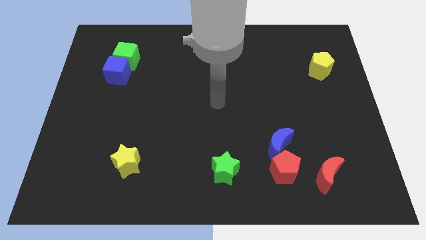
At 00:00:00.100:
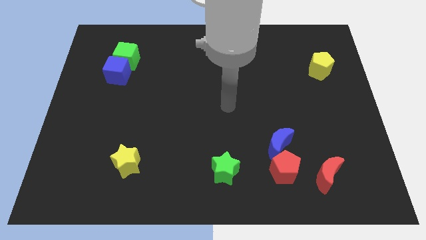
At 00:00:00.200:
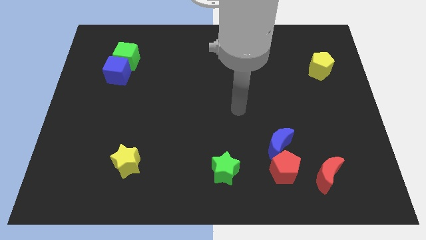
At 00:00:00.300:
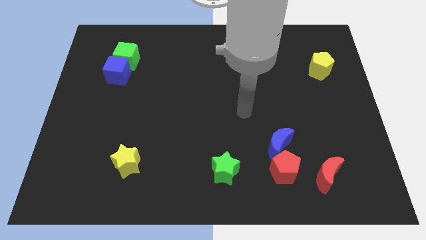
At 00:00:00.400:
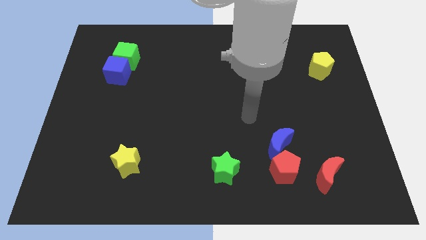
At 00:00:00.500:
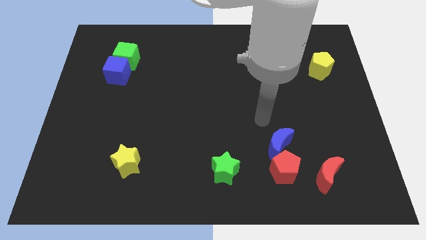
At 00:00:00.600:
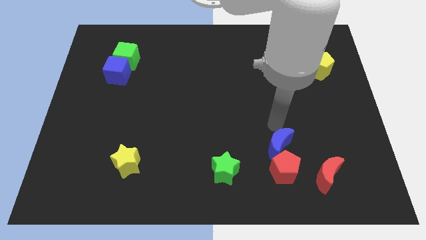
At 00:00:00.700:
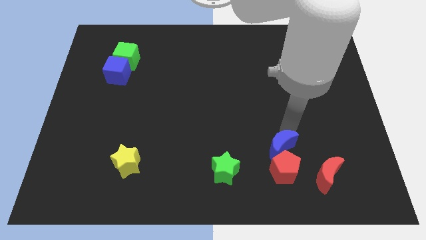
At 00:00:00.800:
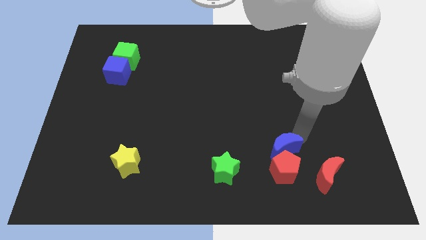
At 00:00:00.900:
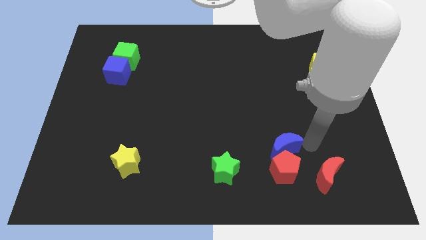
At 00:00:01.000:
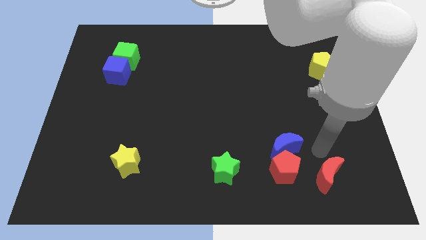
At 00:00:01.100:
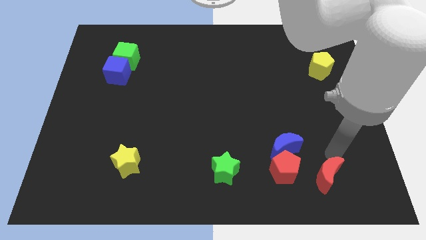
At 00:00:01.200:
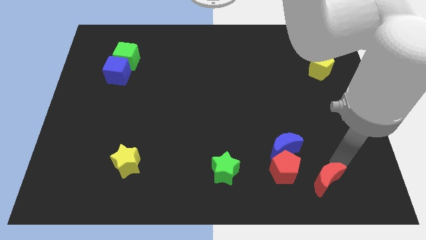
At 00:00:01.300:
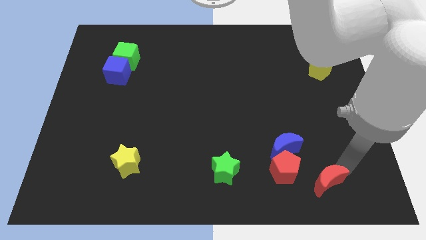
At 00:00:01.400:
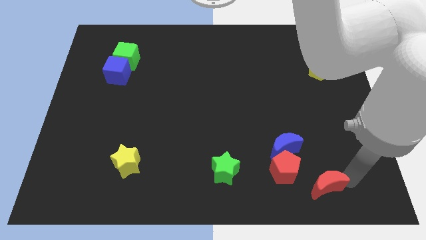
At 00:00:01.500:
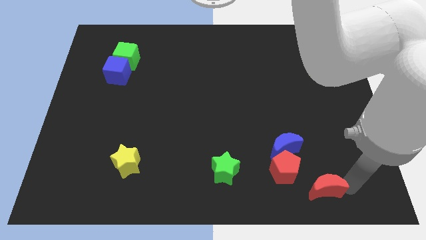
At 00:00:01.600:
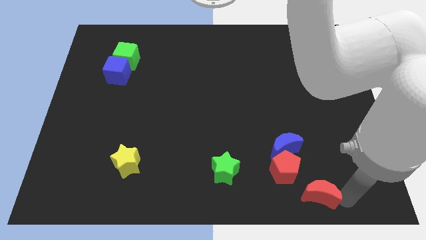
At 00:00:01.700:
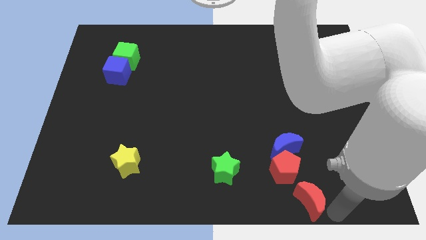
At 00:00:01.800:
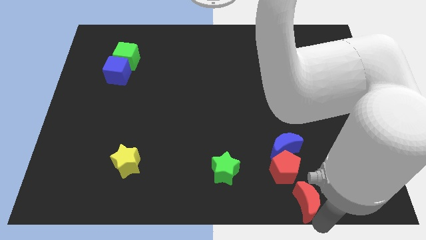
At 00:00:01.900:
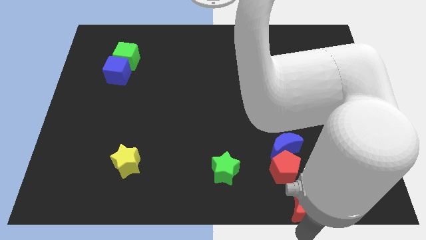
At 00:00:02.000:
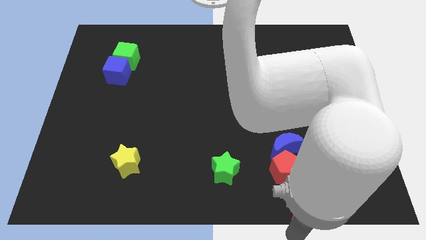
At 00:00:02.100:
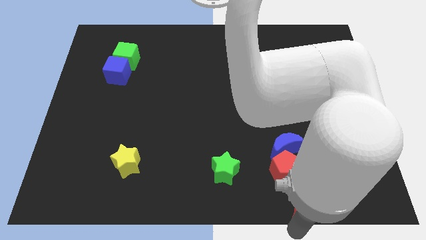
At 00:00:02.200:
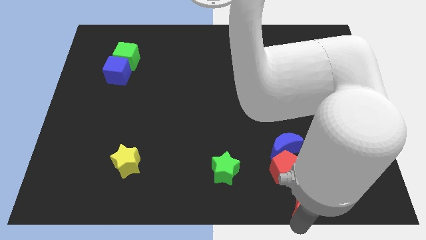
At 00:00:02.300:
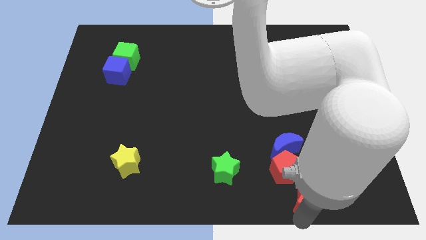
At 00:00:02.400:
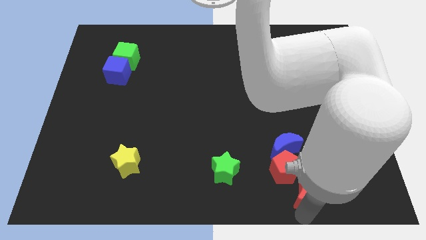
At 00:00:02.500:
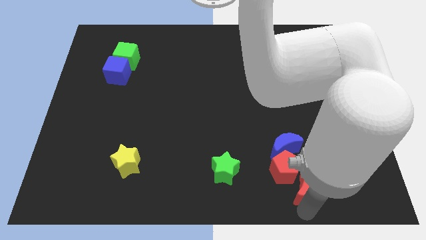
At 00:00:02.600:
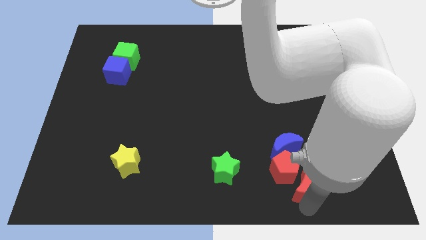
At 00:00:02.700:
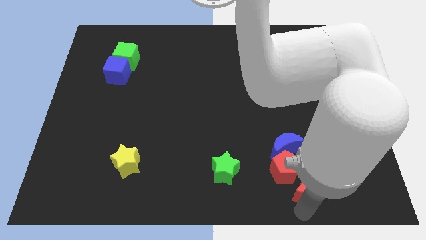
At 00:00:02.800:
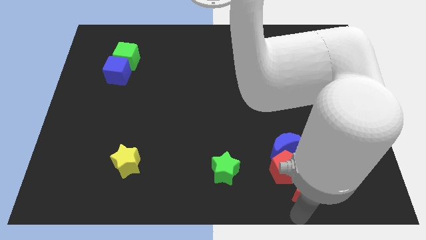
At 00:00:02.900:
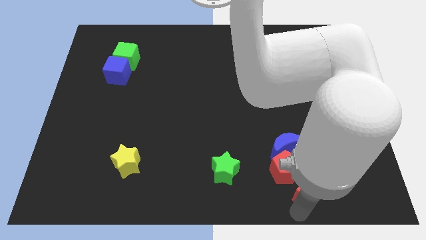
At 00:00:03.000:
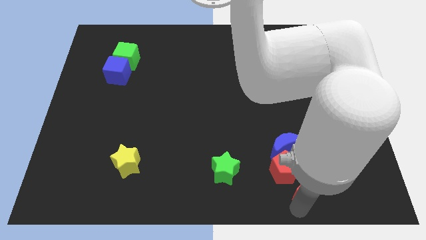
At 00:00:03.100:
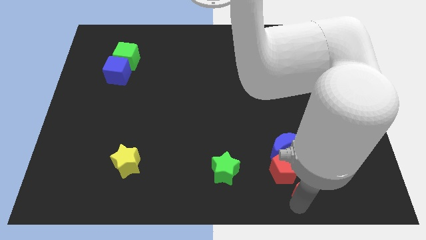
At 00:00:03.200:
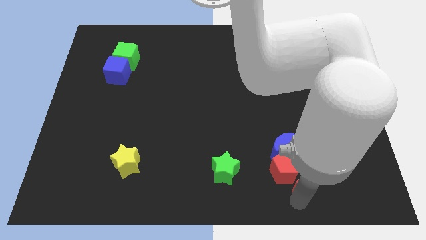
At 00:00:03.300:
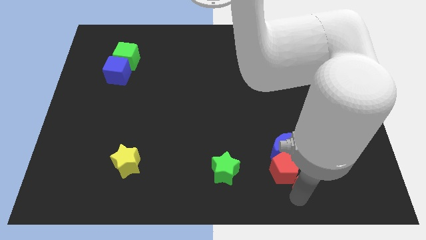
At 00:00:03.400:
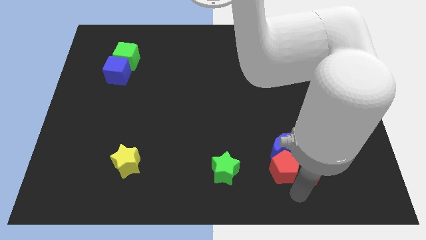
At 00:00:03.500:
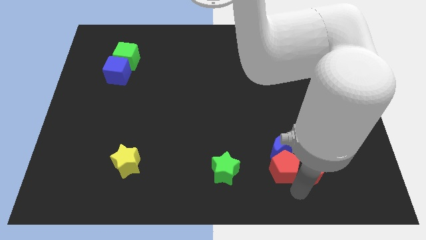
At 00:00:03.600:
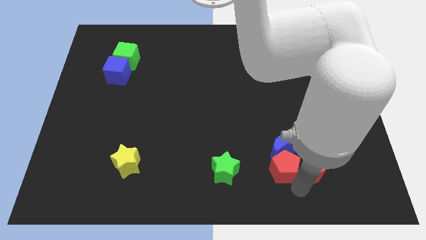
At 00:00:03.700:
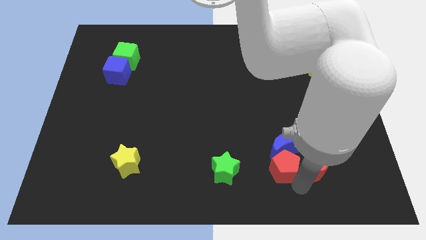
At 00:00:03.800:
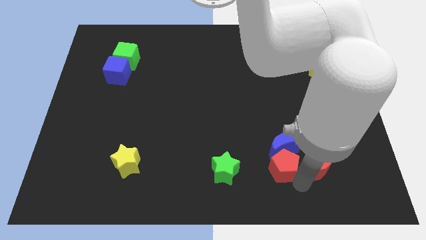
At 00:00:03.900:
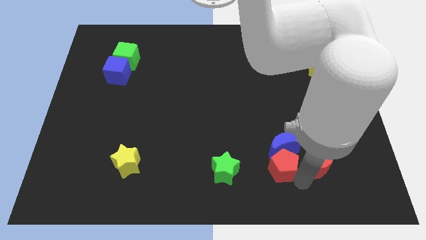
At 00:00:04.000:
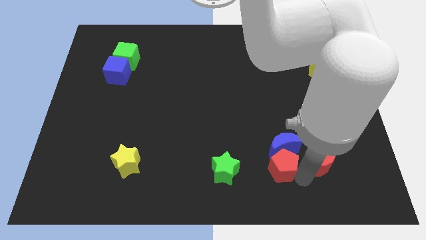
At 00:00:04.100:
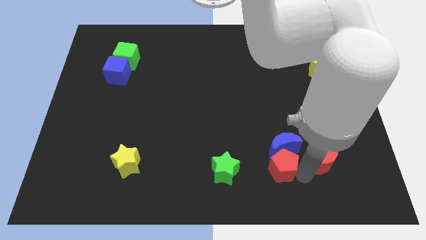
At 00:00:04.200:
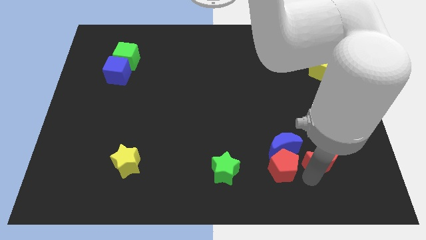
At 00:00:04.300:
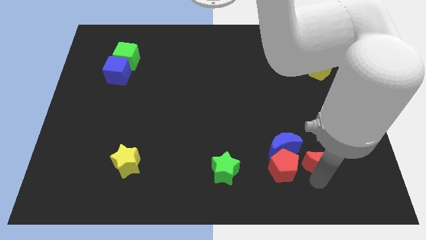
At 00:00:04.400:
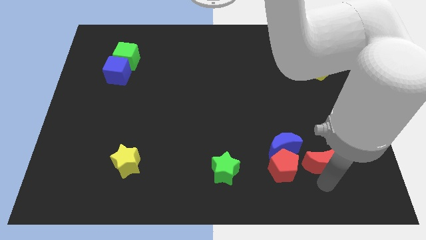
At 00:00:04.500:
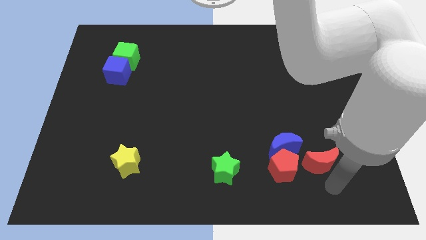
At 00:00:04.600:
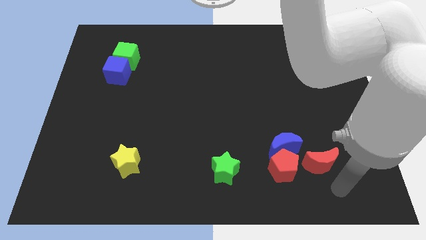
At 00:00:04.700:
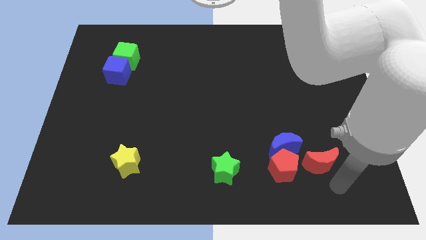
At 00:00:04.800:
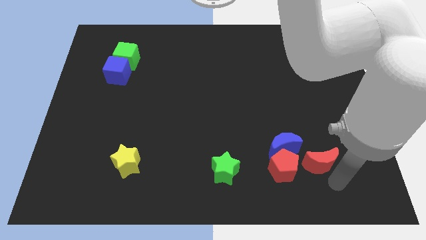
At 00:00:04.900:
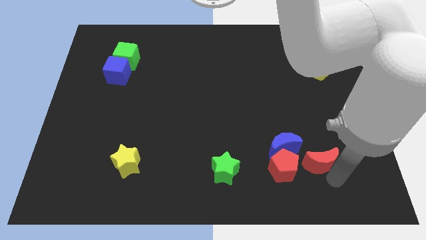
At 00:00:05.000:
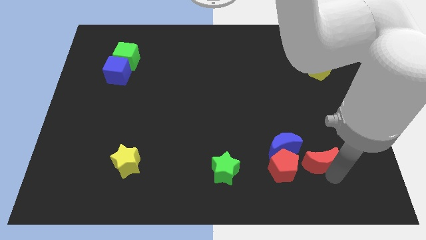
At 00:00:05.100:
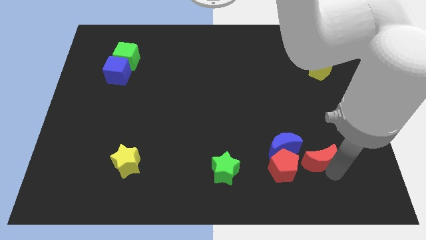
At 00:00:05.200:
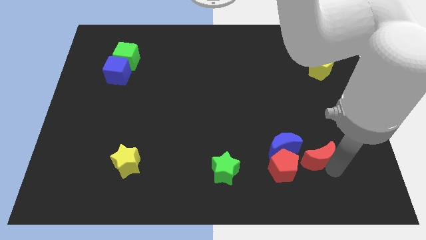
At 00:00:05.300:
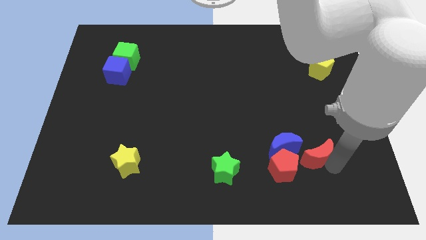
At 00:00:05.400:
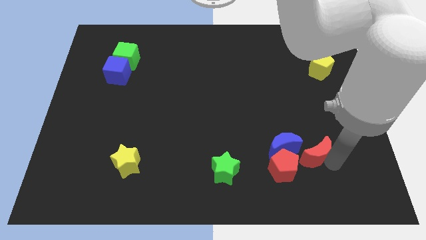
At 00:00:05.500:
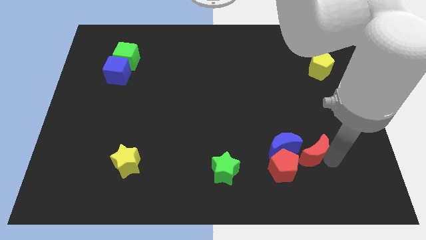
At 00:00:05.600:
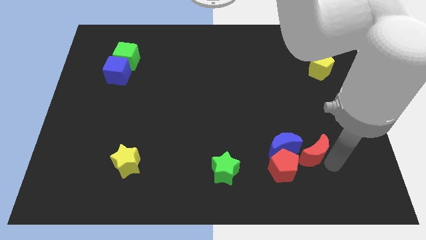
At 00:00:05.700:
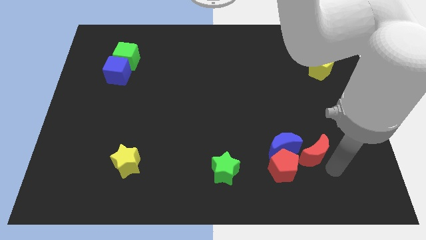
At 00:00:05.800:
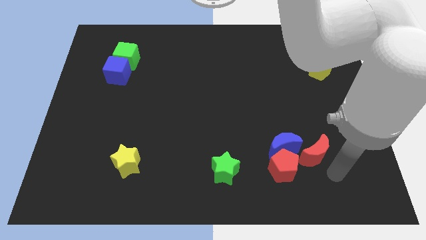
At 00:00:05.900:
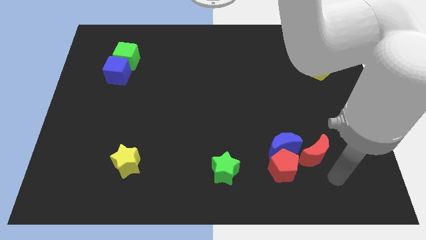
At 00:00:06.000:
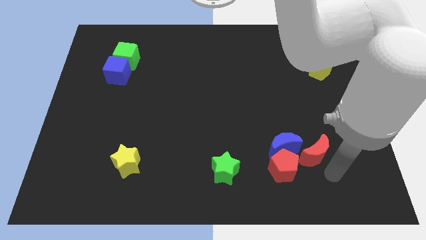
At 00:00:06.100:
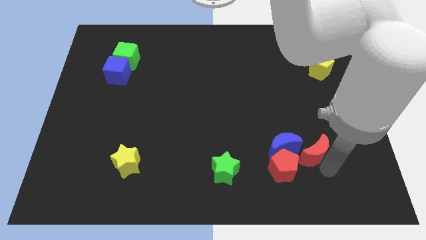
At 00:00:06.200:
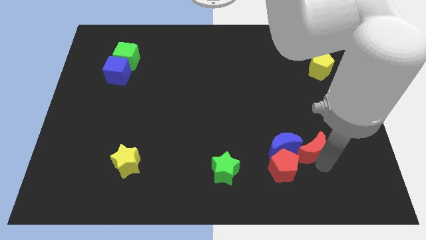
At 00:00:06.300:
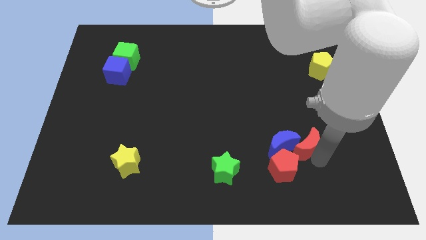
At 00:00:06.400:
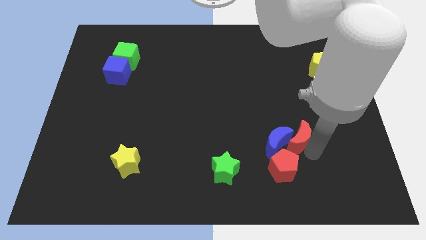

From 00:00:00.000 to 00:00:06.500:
slide the red moon to the top side of the red pentagon

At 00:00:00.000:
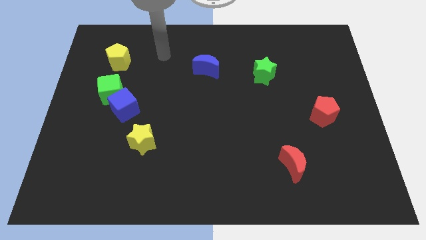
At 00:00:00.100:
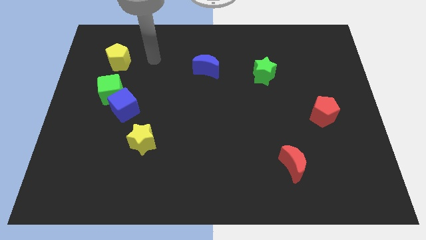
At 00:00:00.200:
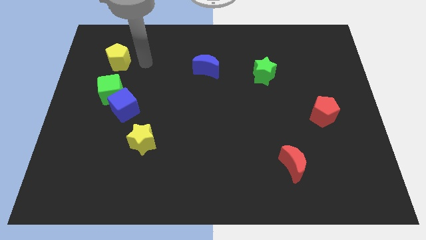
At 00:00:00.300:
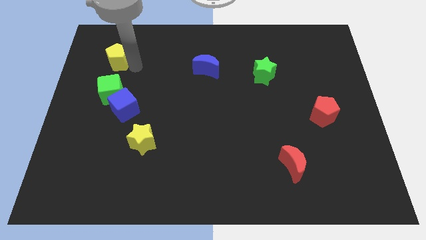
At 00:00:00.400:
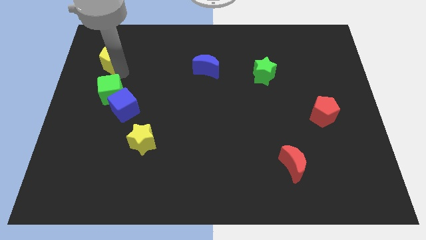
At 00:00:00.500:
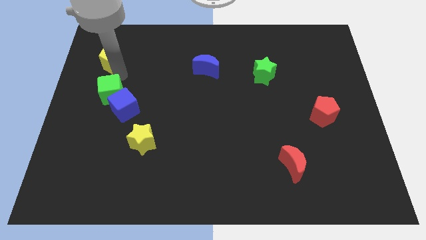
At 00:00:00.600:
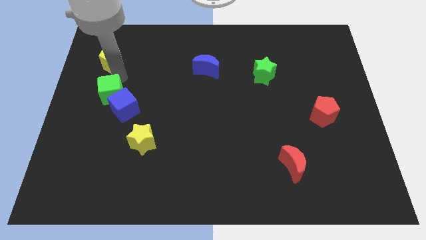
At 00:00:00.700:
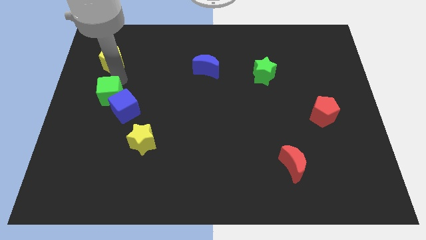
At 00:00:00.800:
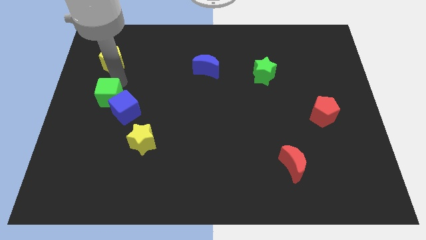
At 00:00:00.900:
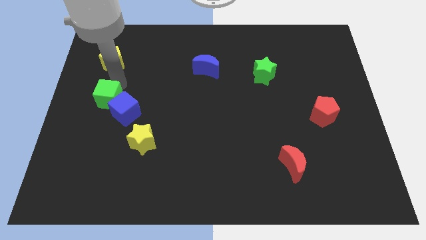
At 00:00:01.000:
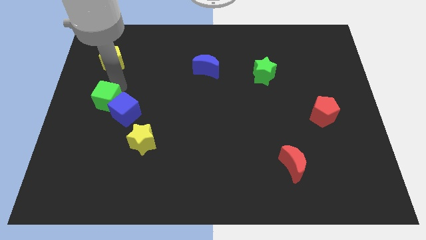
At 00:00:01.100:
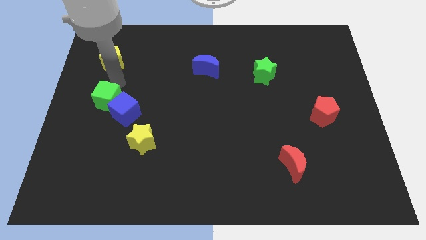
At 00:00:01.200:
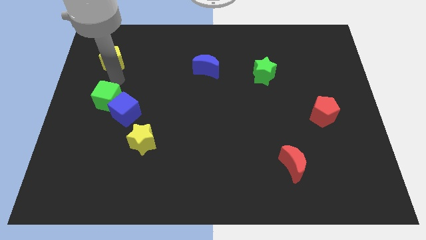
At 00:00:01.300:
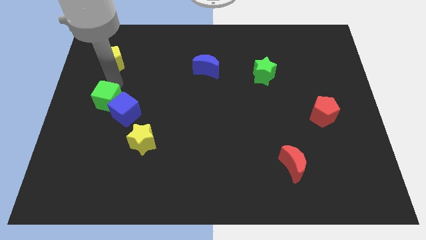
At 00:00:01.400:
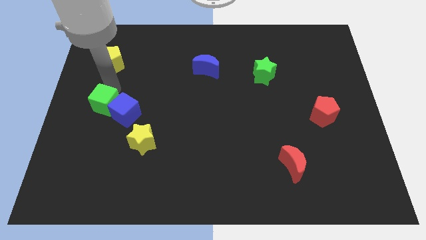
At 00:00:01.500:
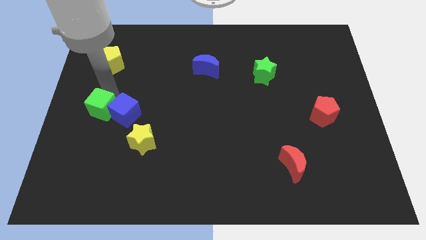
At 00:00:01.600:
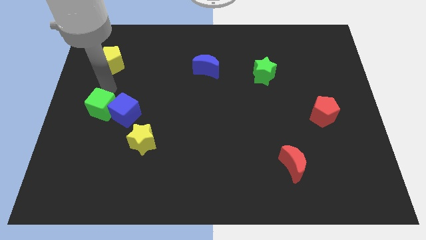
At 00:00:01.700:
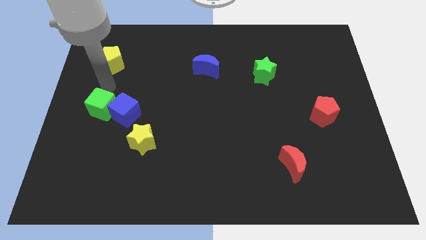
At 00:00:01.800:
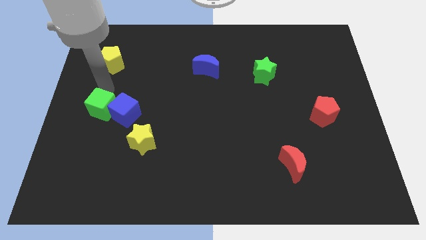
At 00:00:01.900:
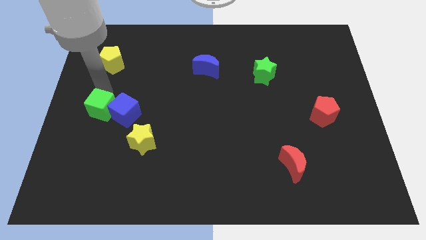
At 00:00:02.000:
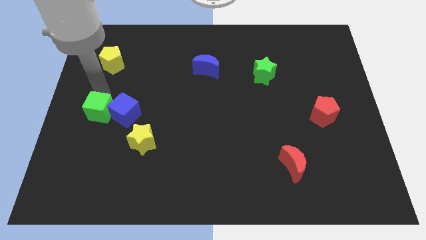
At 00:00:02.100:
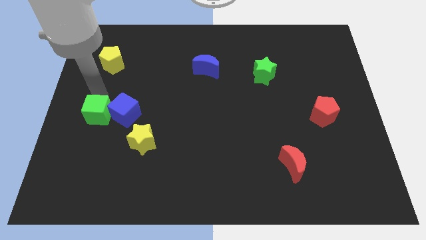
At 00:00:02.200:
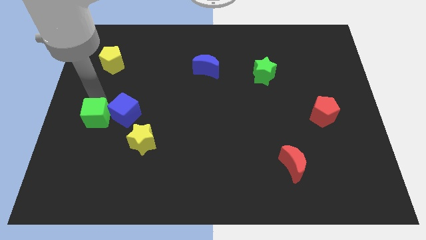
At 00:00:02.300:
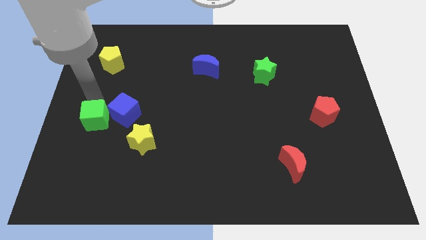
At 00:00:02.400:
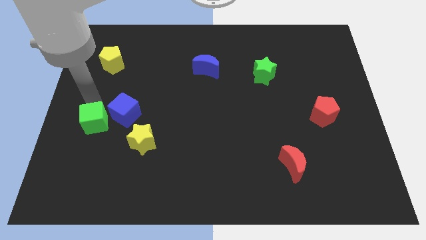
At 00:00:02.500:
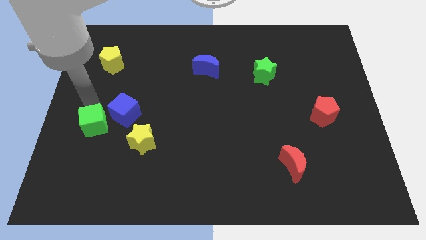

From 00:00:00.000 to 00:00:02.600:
slide the green cube to the left of the yellow star
